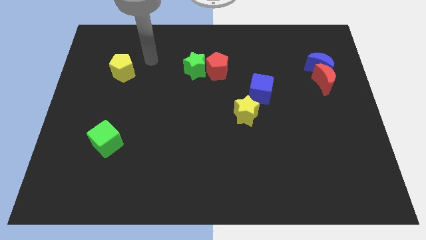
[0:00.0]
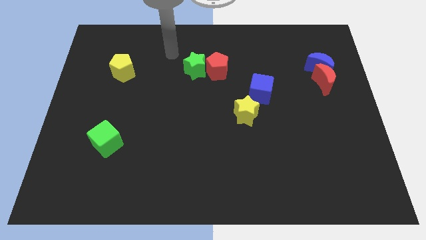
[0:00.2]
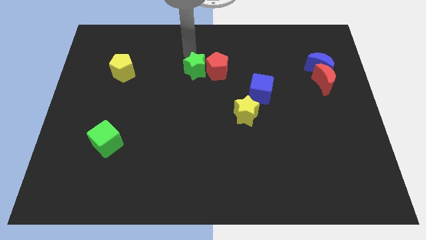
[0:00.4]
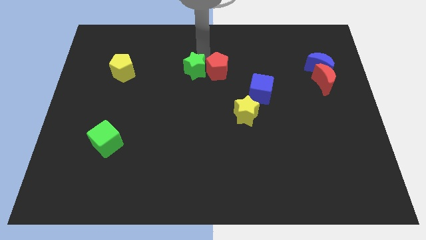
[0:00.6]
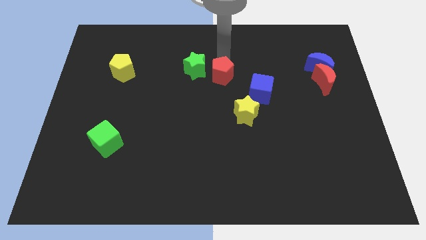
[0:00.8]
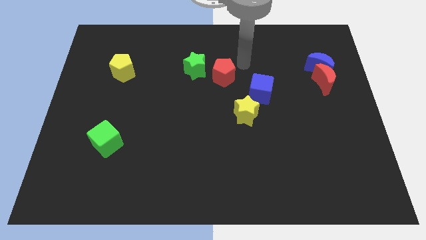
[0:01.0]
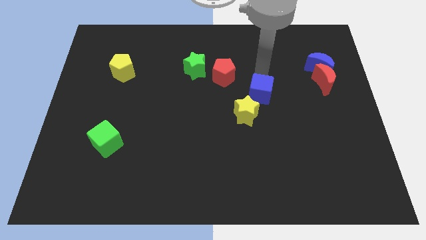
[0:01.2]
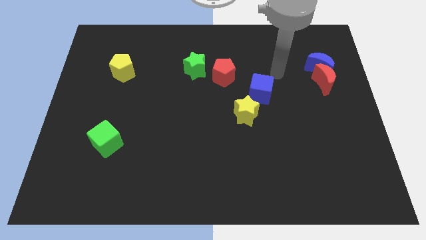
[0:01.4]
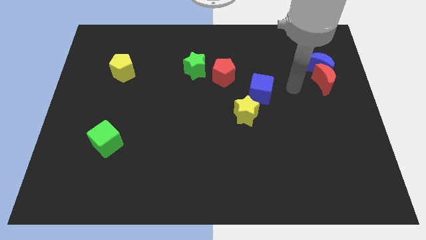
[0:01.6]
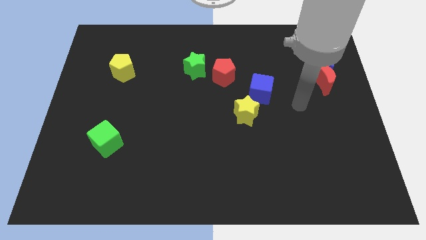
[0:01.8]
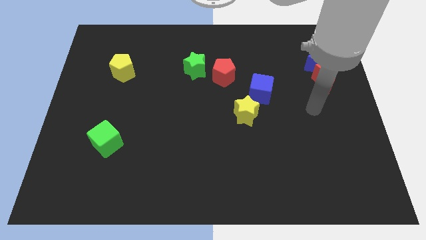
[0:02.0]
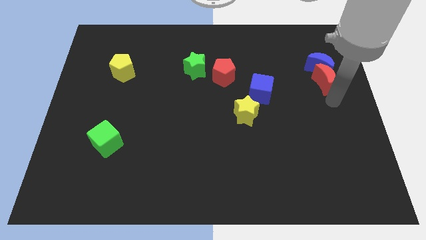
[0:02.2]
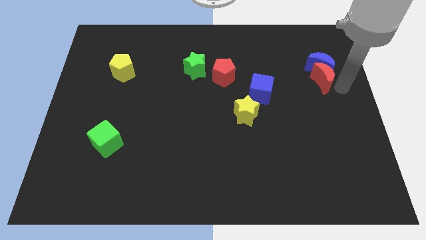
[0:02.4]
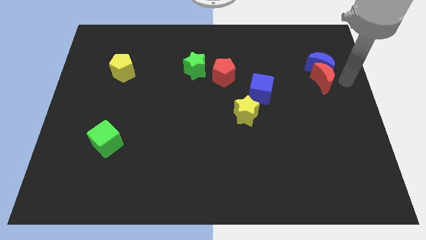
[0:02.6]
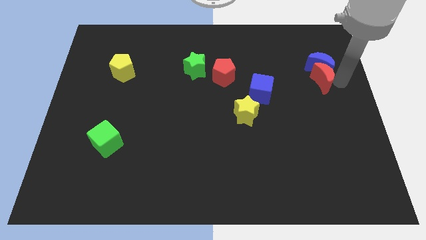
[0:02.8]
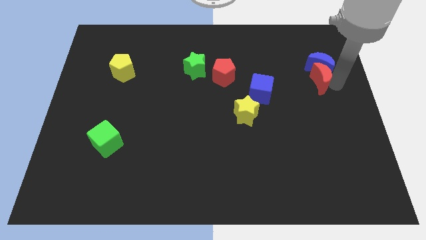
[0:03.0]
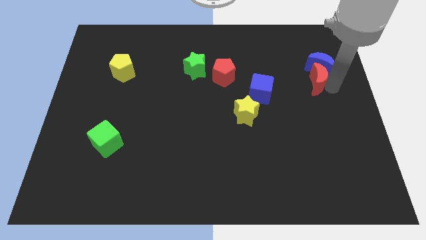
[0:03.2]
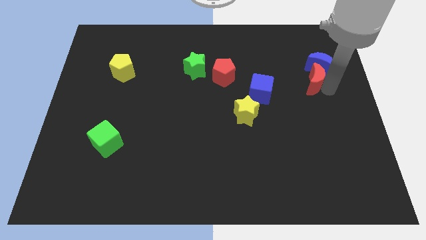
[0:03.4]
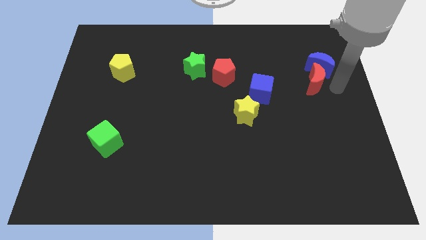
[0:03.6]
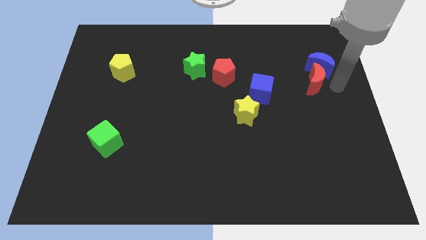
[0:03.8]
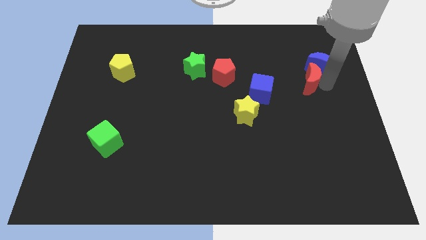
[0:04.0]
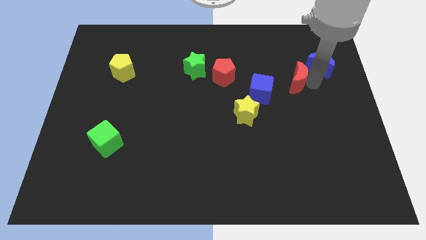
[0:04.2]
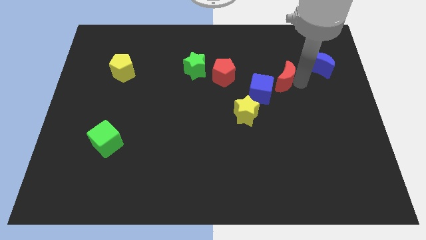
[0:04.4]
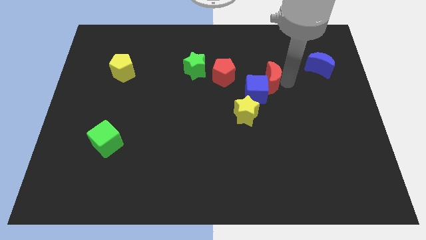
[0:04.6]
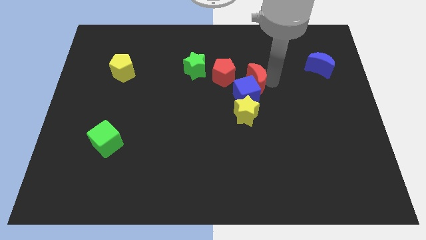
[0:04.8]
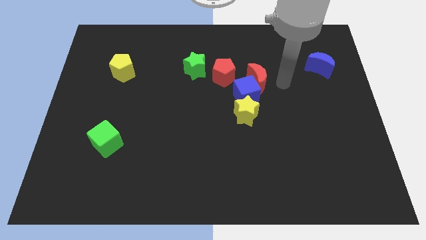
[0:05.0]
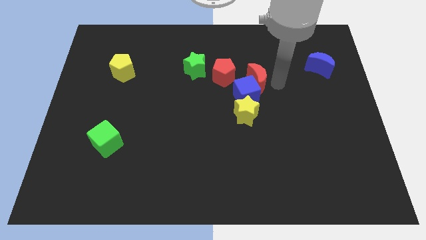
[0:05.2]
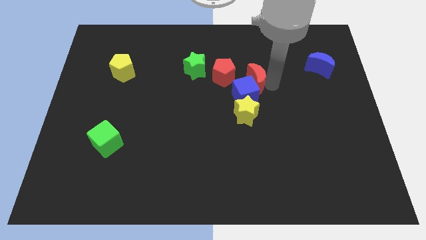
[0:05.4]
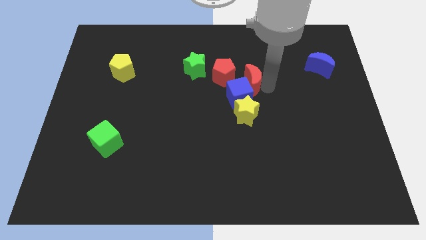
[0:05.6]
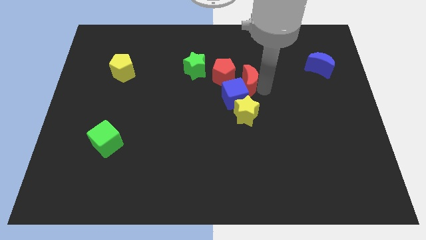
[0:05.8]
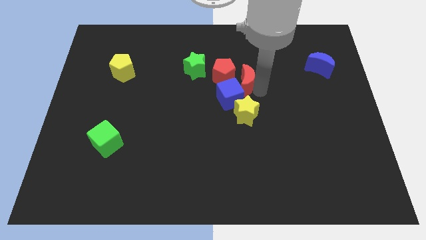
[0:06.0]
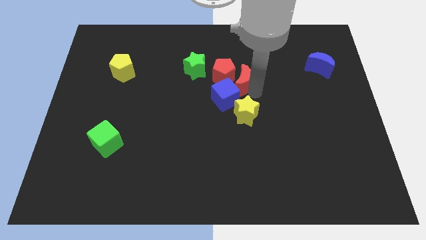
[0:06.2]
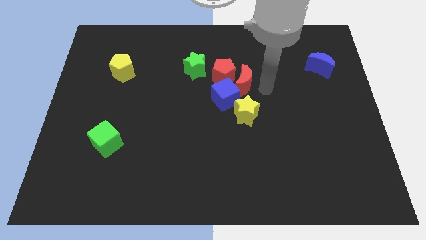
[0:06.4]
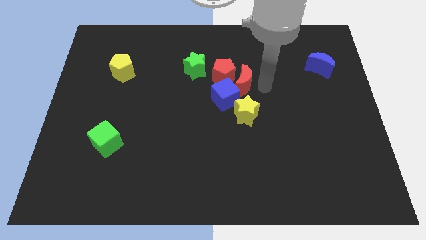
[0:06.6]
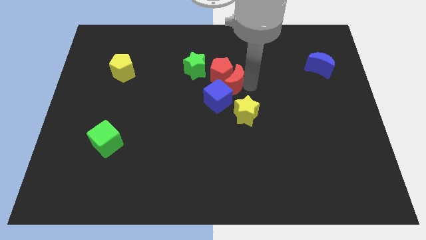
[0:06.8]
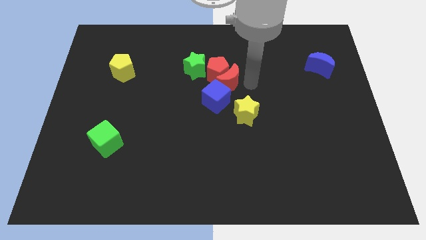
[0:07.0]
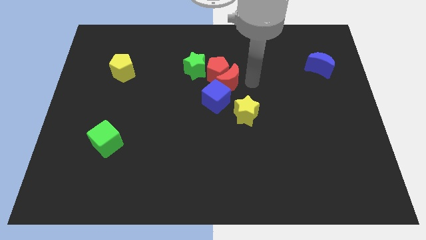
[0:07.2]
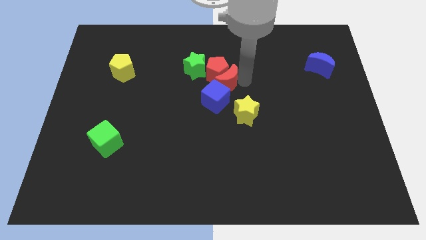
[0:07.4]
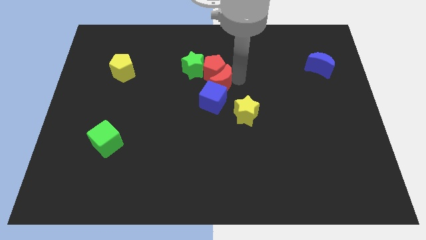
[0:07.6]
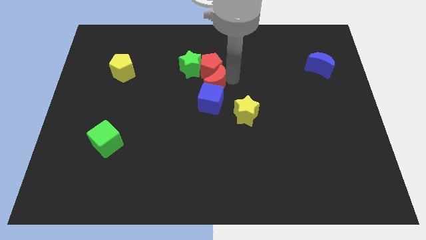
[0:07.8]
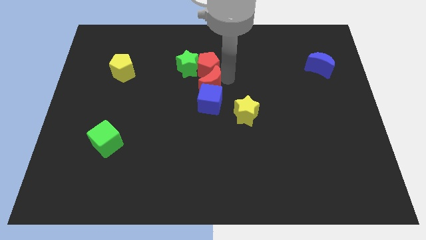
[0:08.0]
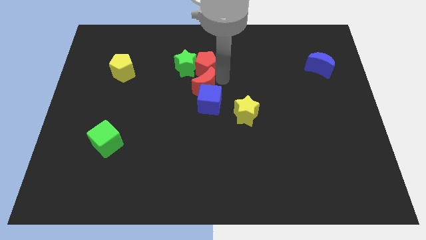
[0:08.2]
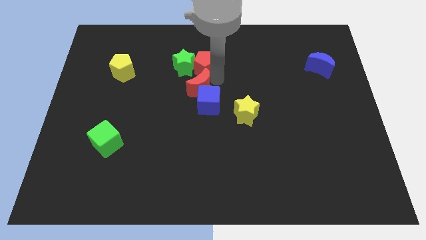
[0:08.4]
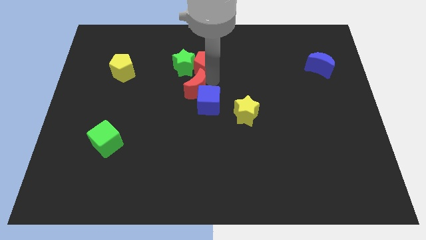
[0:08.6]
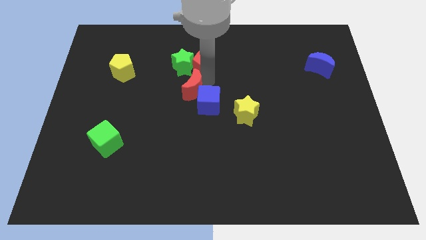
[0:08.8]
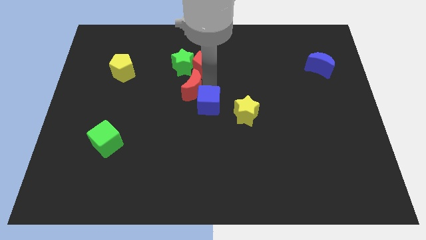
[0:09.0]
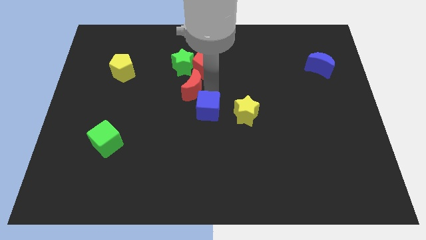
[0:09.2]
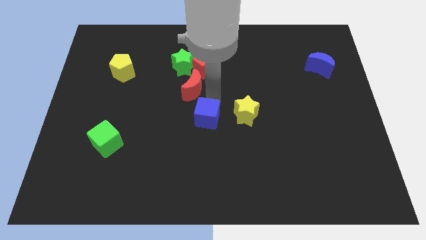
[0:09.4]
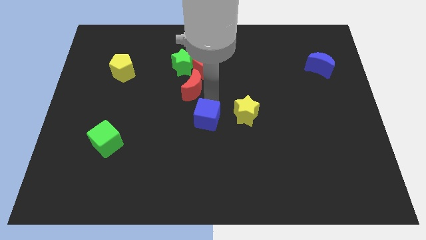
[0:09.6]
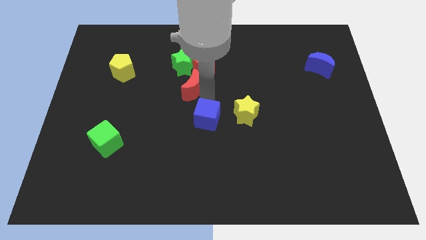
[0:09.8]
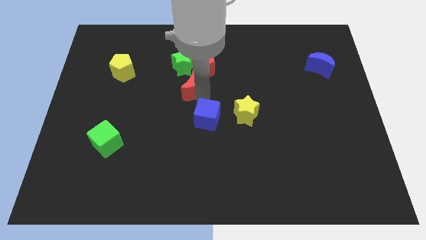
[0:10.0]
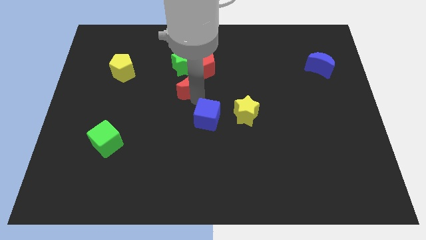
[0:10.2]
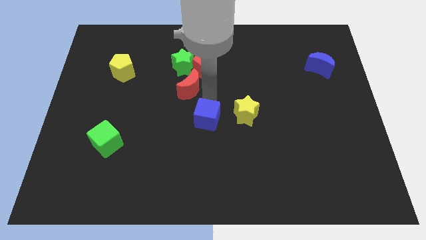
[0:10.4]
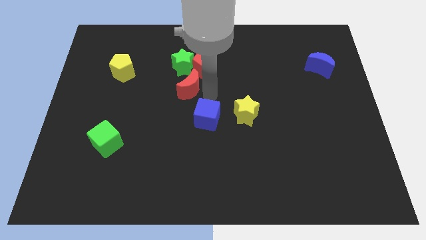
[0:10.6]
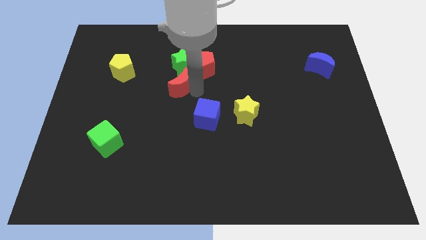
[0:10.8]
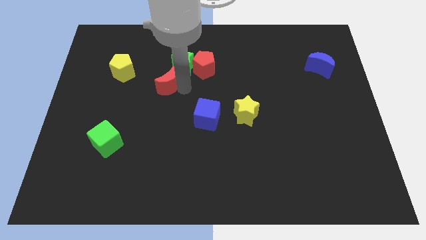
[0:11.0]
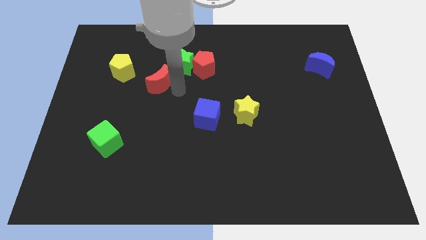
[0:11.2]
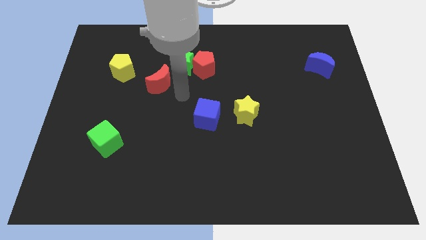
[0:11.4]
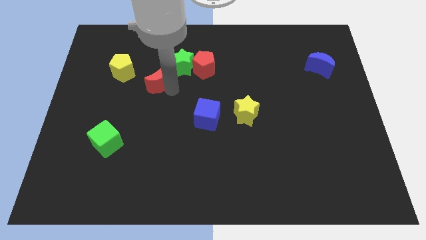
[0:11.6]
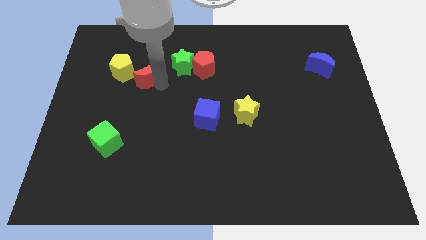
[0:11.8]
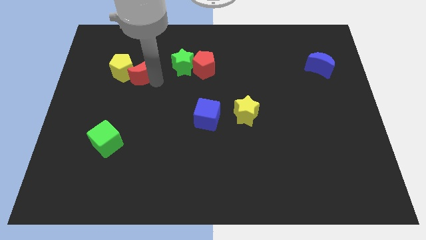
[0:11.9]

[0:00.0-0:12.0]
slide the red moon close to the yellow pentagon

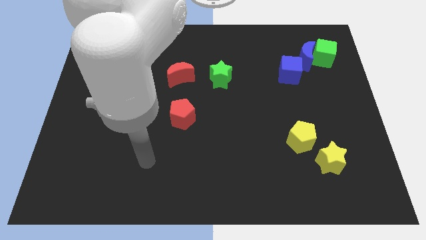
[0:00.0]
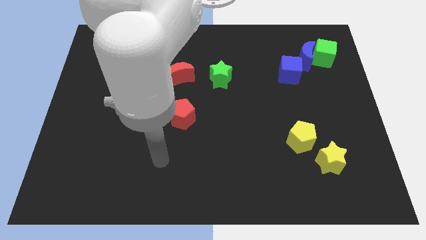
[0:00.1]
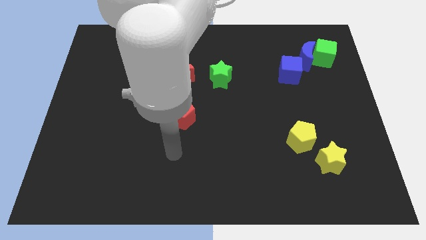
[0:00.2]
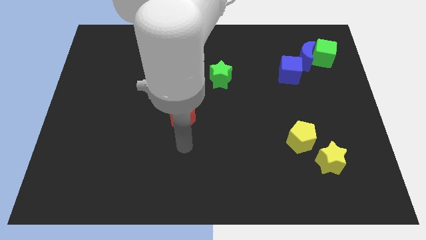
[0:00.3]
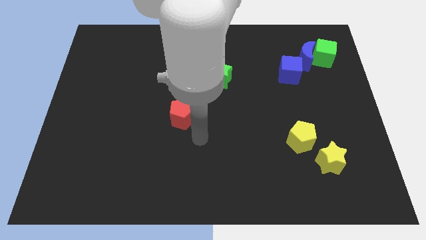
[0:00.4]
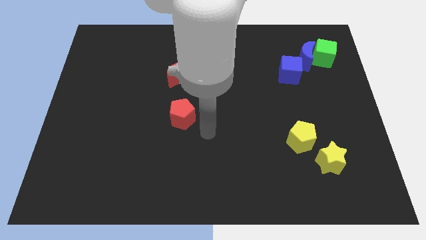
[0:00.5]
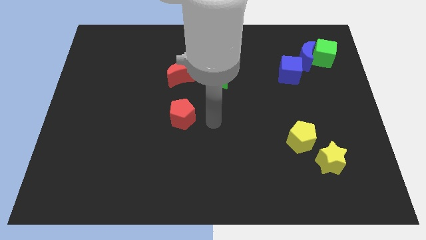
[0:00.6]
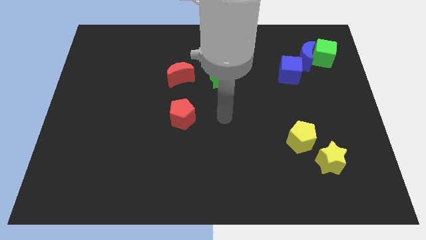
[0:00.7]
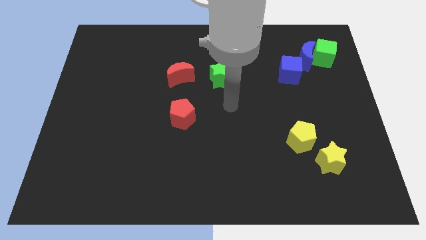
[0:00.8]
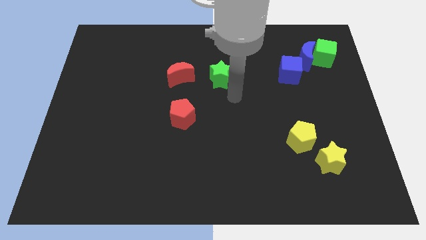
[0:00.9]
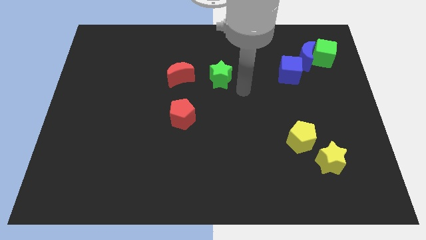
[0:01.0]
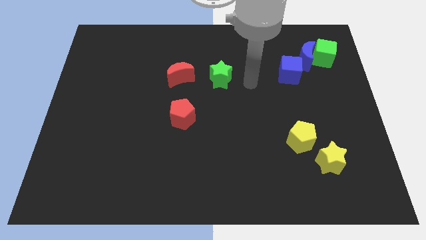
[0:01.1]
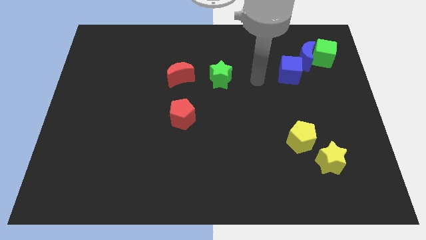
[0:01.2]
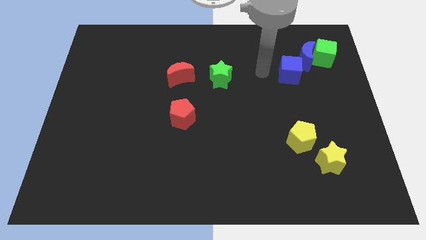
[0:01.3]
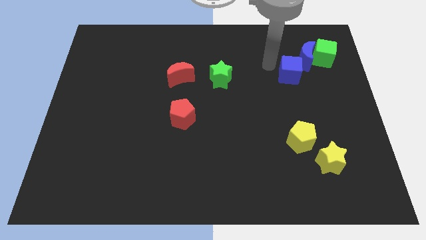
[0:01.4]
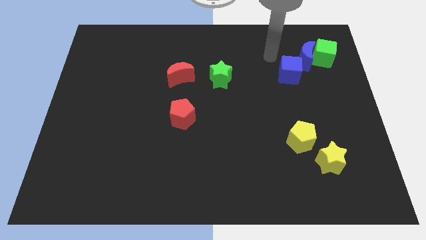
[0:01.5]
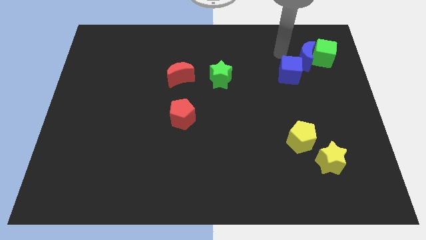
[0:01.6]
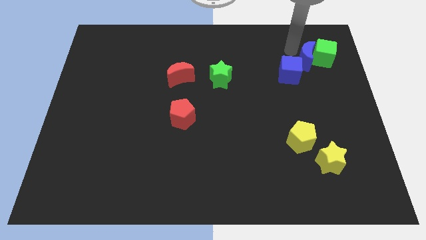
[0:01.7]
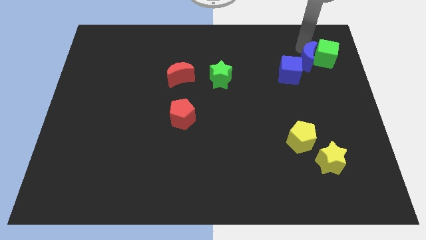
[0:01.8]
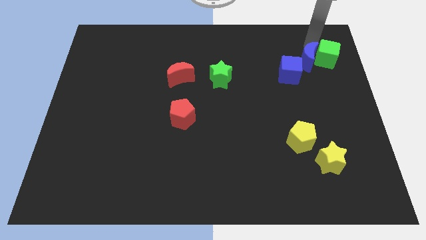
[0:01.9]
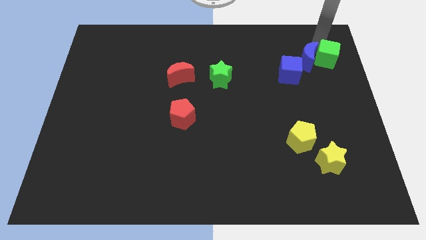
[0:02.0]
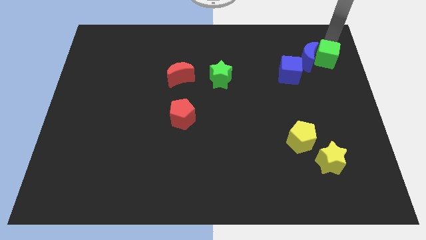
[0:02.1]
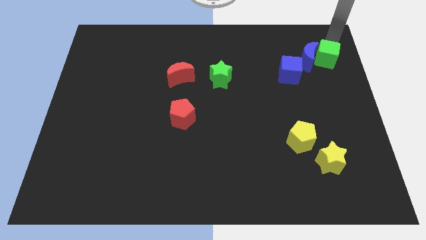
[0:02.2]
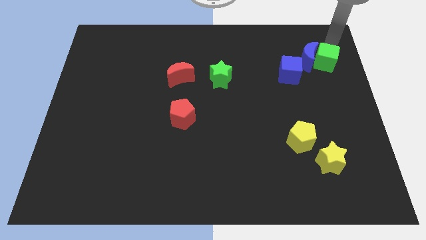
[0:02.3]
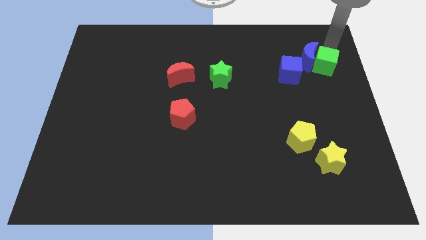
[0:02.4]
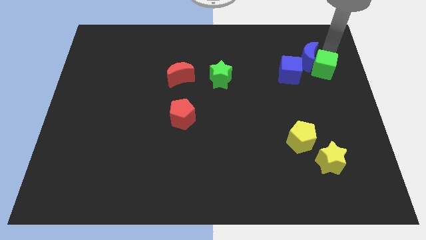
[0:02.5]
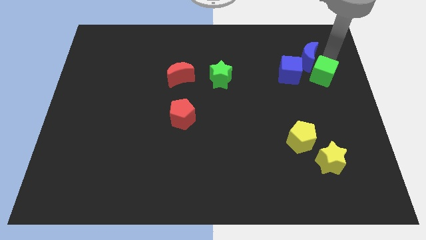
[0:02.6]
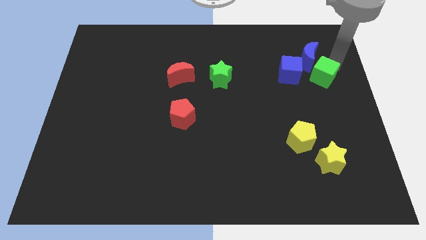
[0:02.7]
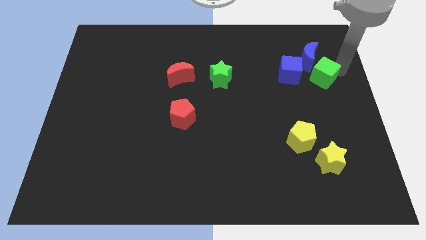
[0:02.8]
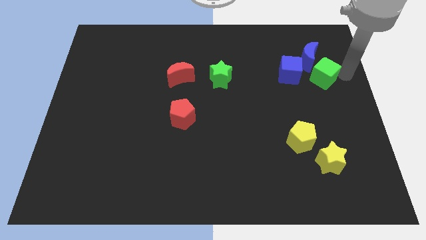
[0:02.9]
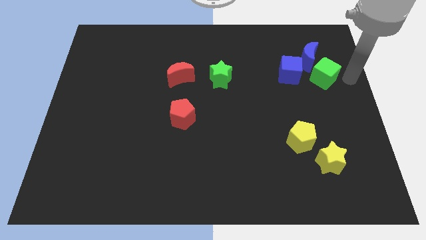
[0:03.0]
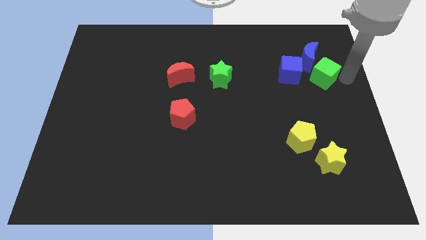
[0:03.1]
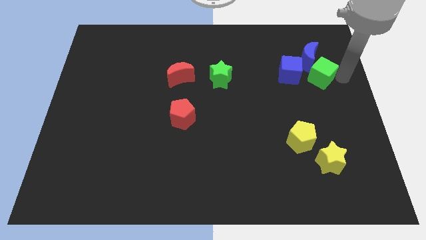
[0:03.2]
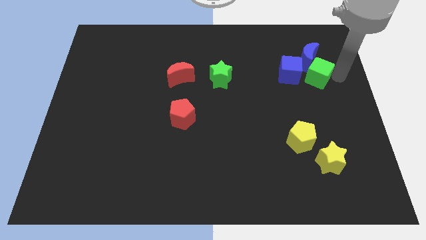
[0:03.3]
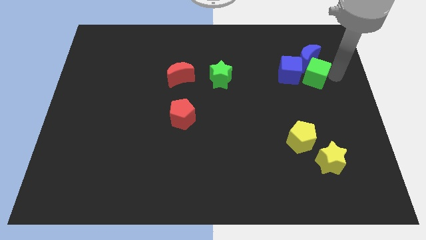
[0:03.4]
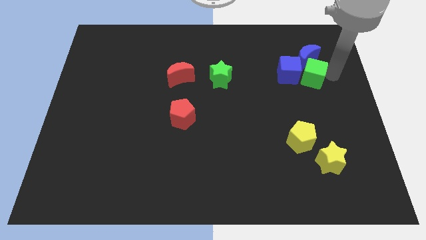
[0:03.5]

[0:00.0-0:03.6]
move the green cube next to the blue cube
